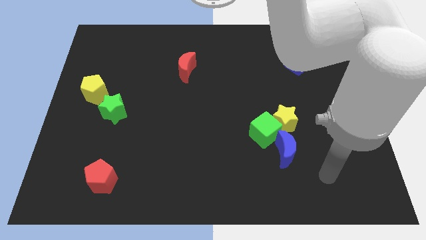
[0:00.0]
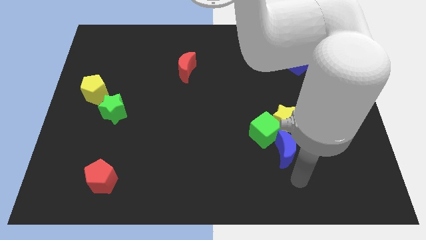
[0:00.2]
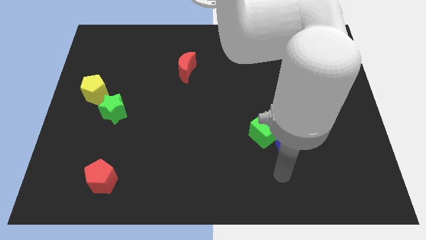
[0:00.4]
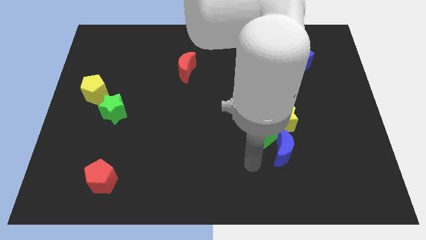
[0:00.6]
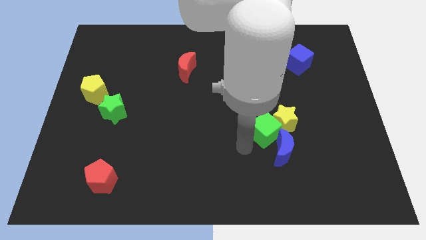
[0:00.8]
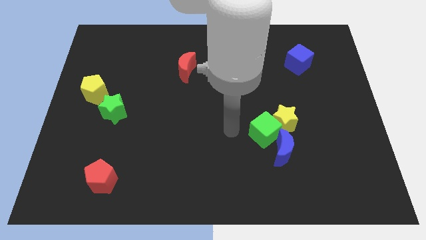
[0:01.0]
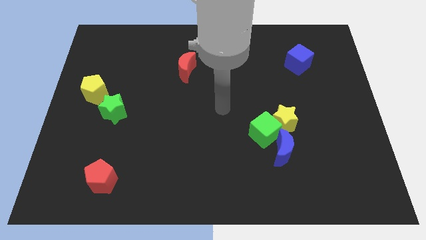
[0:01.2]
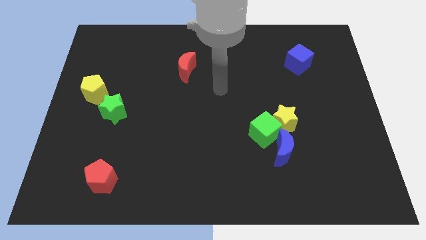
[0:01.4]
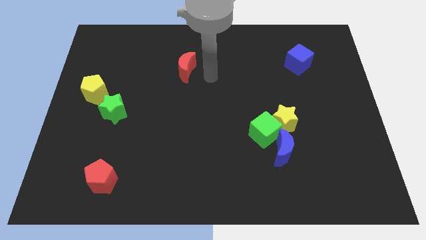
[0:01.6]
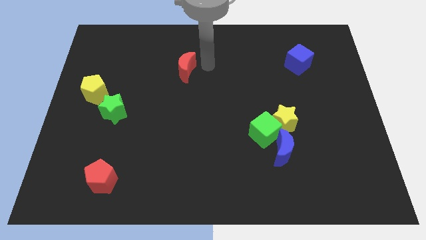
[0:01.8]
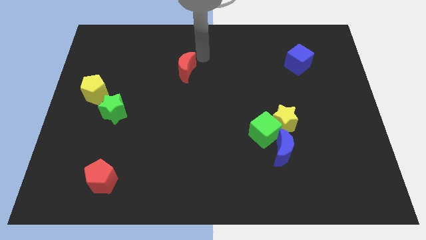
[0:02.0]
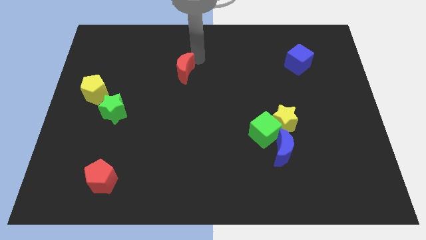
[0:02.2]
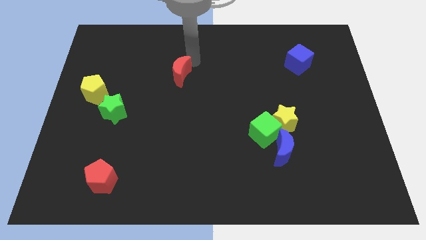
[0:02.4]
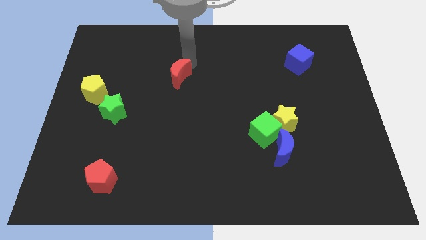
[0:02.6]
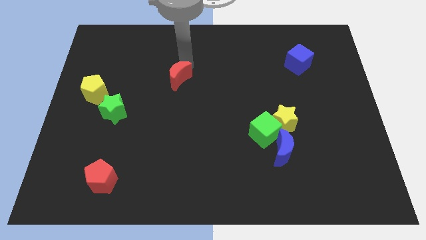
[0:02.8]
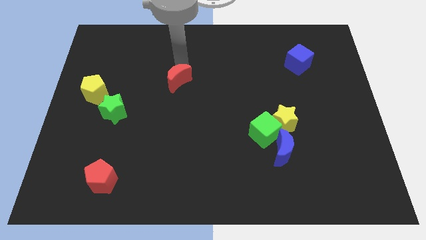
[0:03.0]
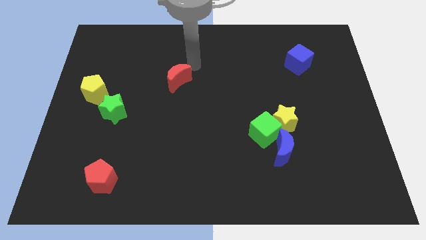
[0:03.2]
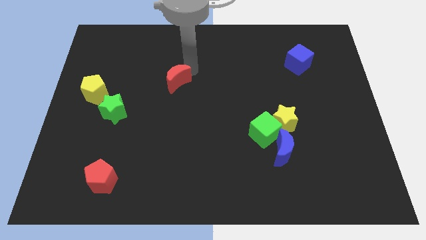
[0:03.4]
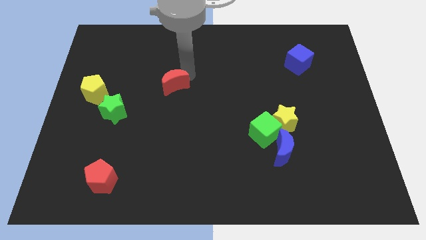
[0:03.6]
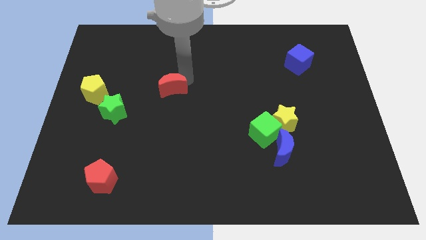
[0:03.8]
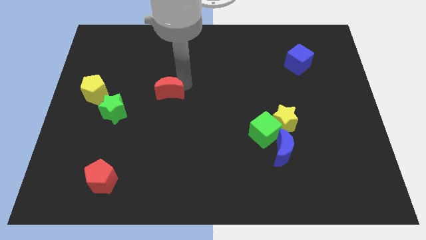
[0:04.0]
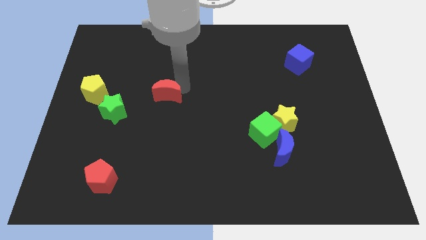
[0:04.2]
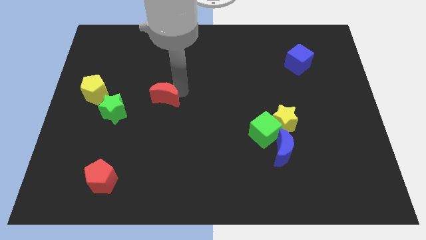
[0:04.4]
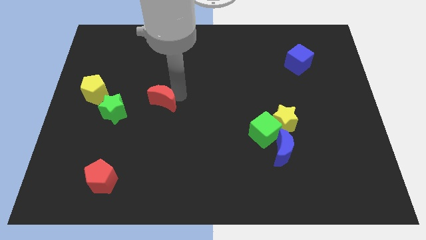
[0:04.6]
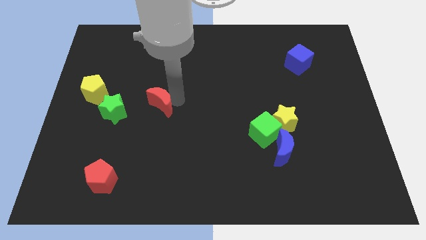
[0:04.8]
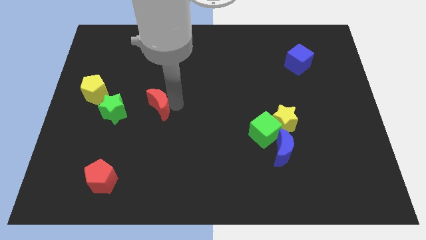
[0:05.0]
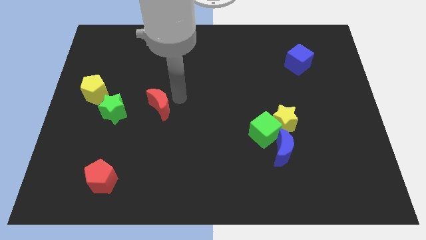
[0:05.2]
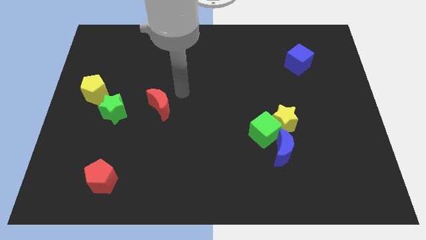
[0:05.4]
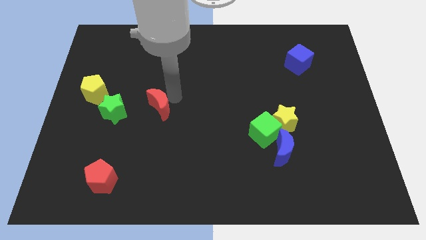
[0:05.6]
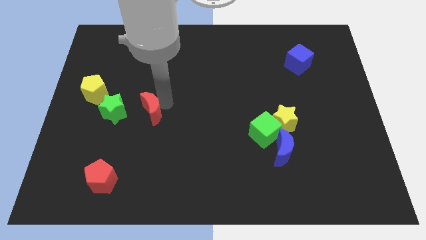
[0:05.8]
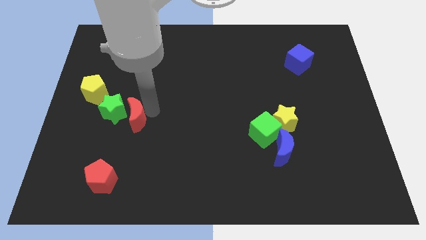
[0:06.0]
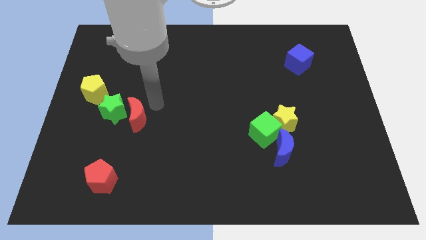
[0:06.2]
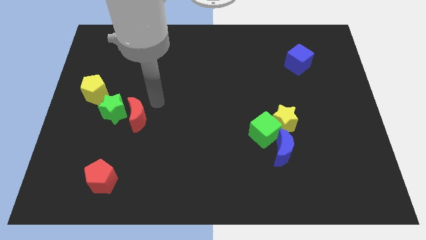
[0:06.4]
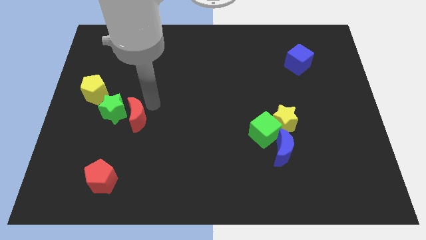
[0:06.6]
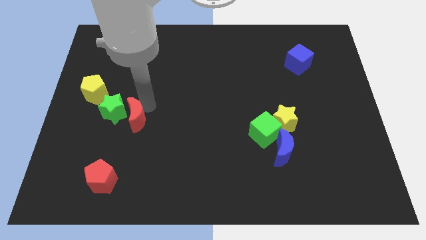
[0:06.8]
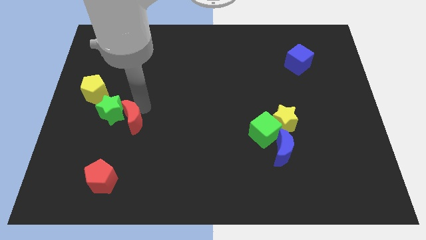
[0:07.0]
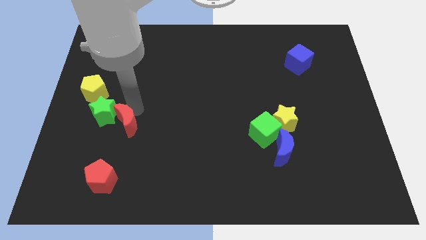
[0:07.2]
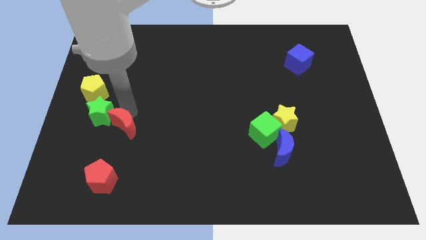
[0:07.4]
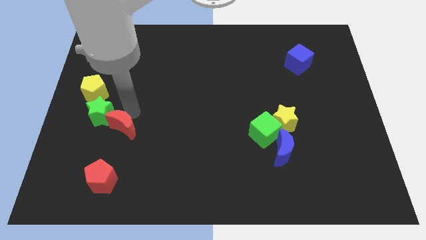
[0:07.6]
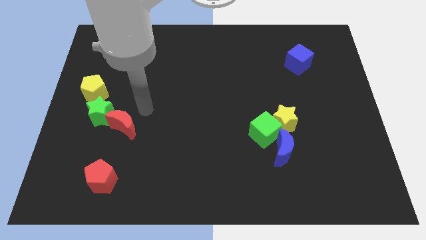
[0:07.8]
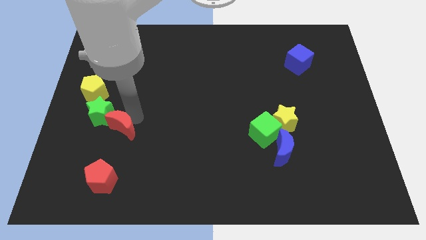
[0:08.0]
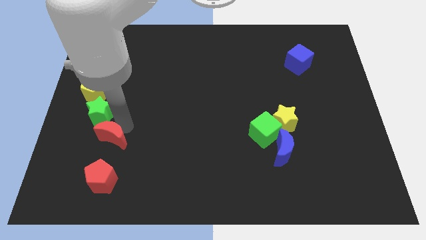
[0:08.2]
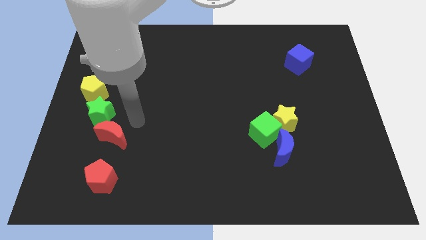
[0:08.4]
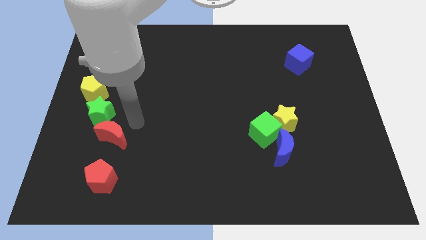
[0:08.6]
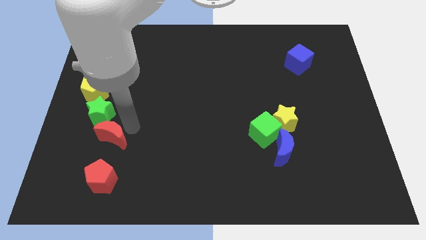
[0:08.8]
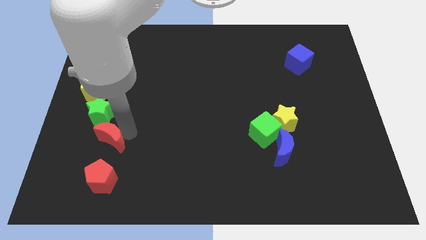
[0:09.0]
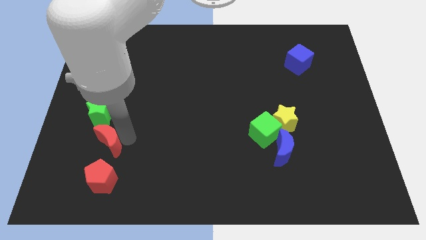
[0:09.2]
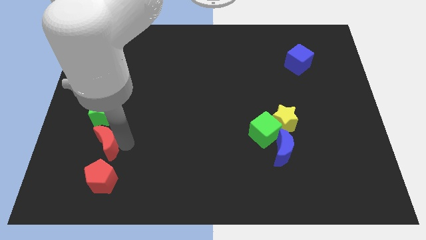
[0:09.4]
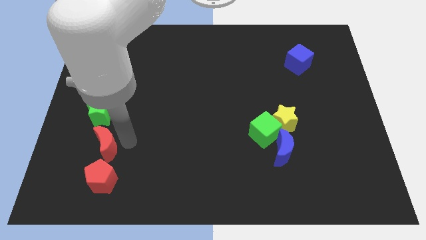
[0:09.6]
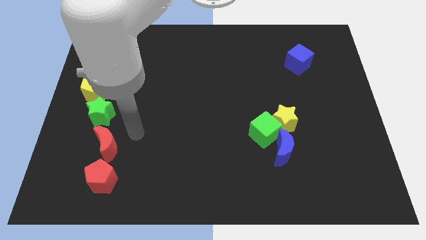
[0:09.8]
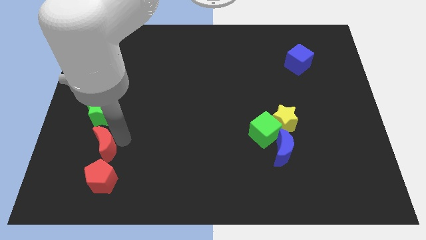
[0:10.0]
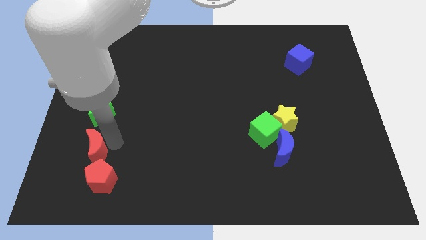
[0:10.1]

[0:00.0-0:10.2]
move the red moon to the top left side of the red pentagon

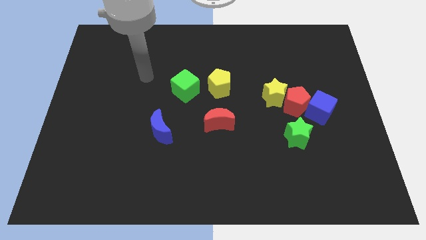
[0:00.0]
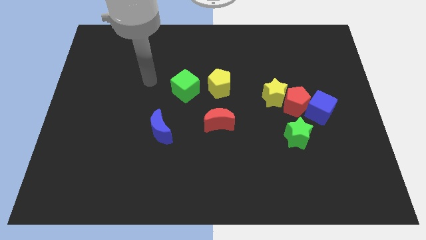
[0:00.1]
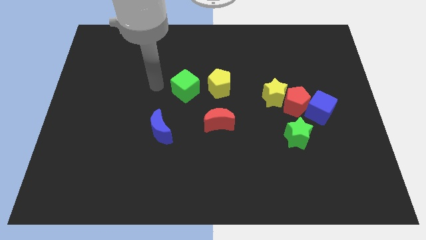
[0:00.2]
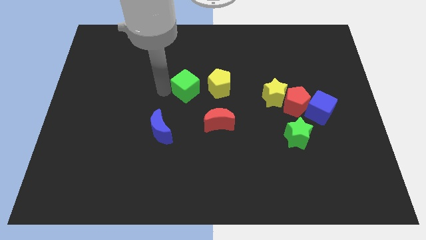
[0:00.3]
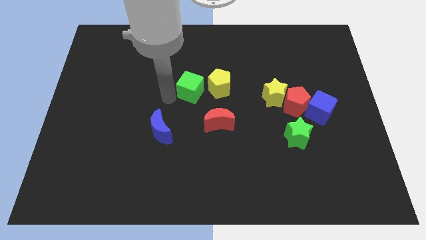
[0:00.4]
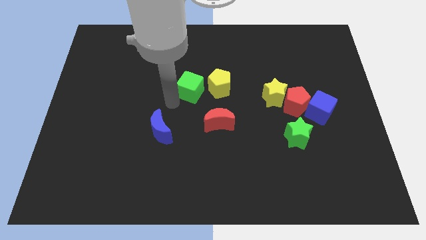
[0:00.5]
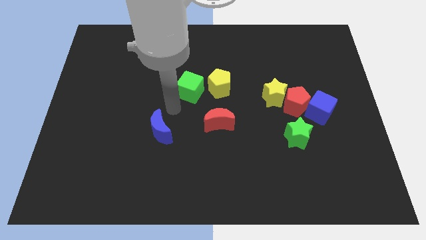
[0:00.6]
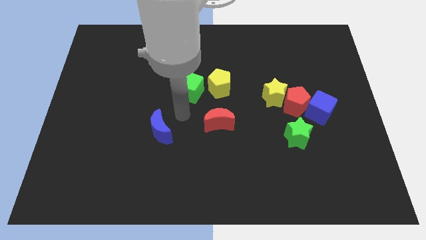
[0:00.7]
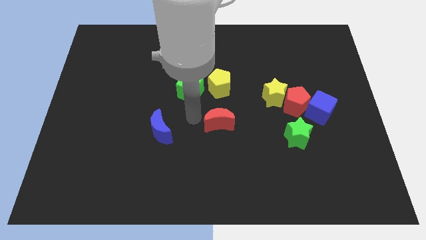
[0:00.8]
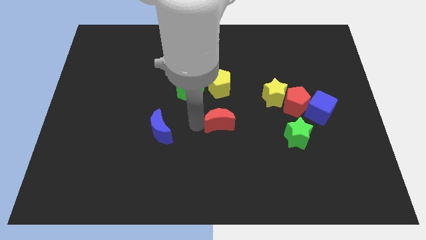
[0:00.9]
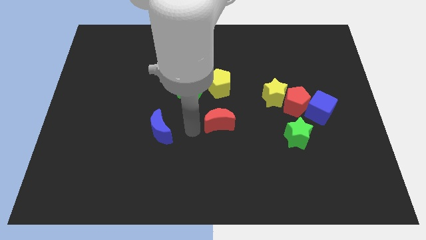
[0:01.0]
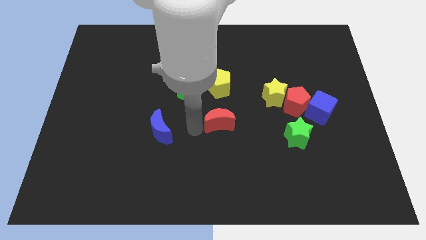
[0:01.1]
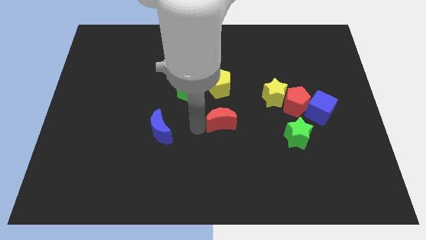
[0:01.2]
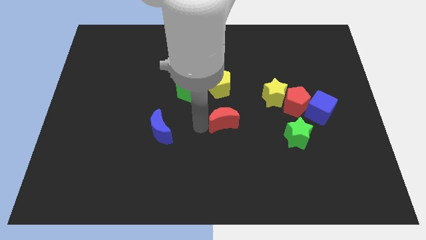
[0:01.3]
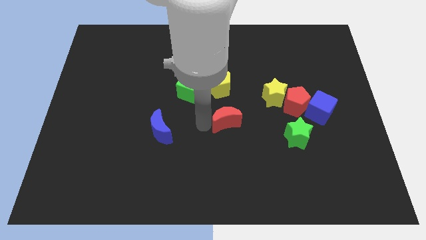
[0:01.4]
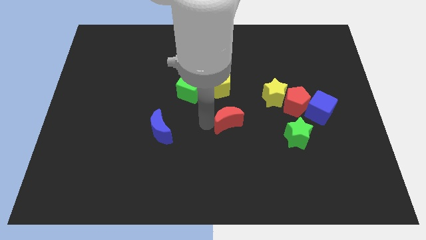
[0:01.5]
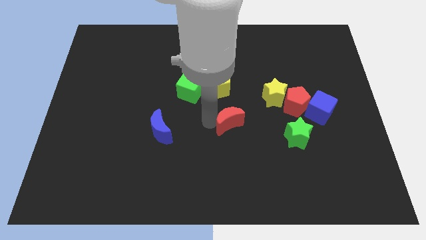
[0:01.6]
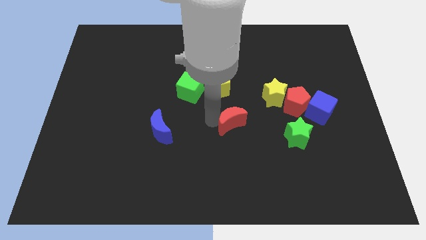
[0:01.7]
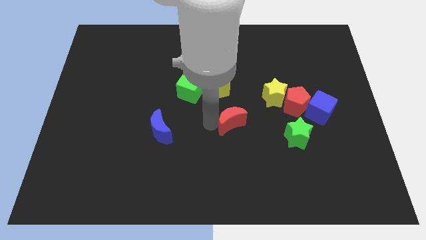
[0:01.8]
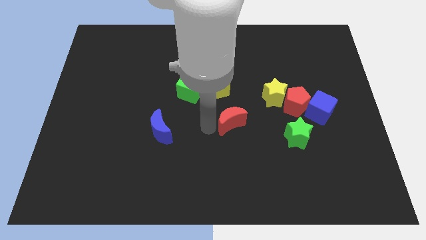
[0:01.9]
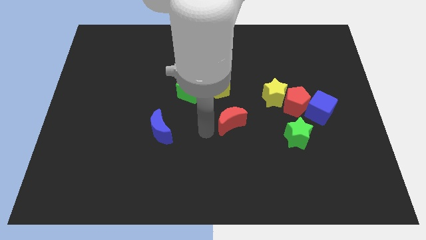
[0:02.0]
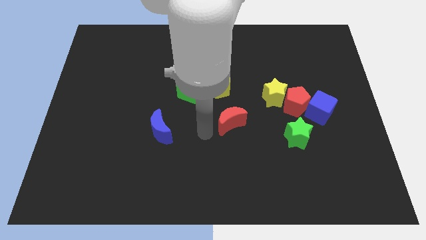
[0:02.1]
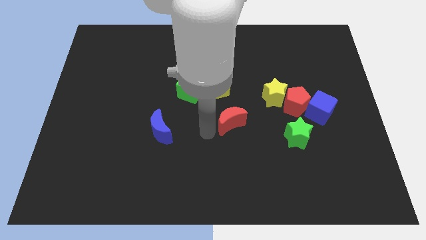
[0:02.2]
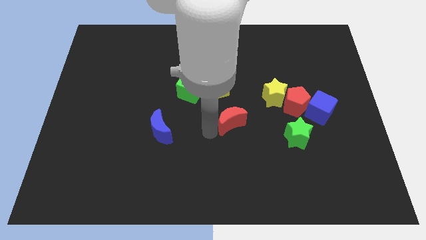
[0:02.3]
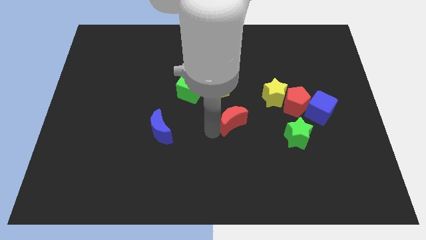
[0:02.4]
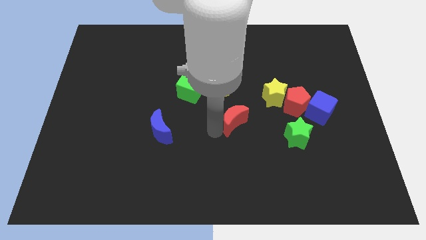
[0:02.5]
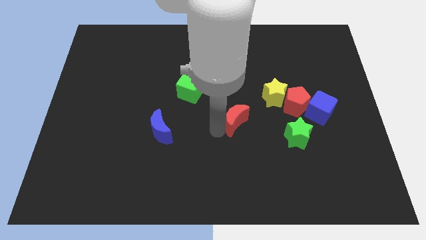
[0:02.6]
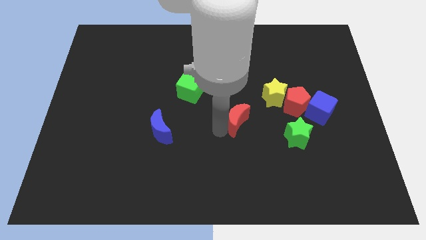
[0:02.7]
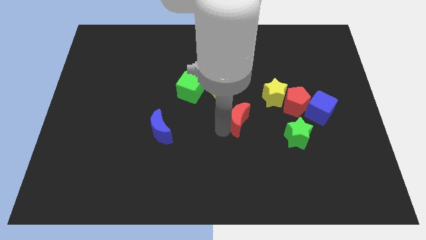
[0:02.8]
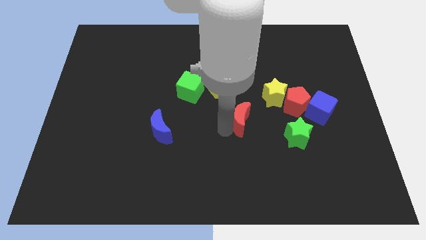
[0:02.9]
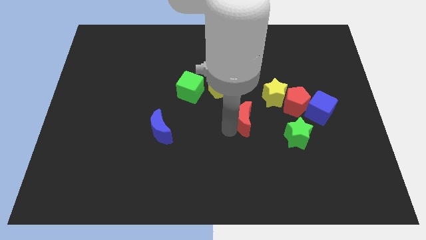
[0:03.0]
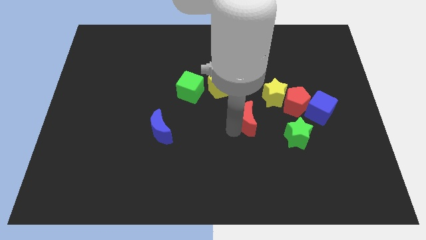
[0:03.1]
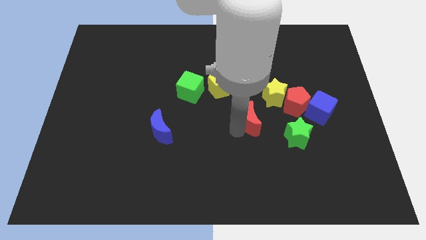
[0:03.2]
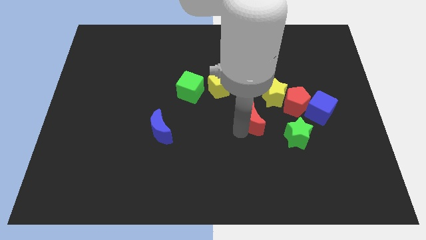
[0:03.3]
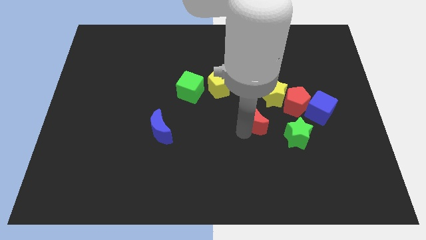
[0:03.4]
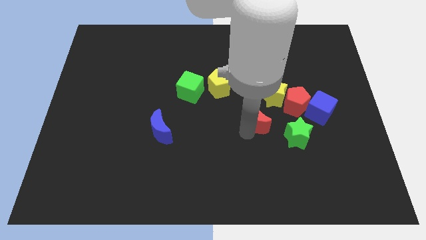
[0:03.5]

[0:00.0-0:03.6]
slide the red moon to the left of the blue cube
